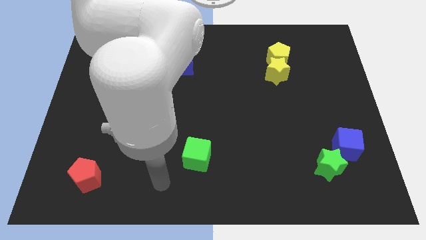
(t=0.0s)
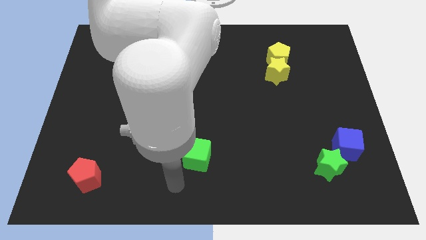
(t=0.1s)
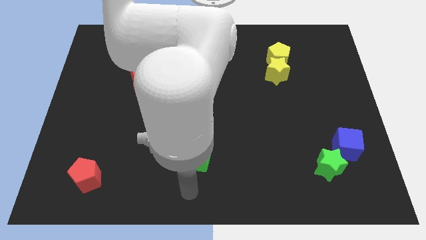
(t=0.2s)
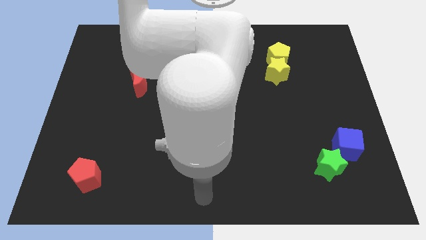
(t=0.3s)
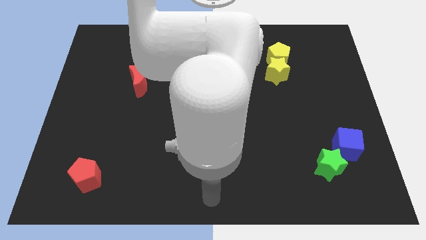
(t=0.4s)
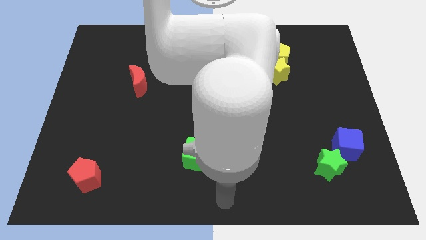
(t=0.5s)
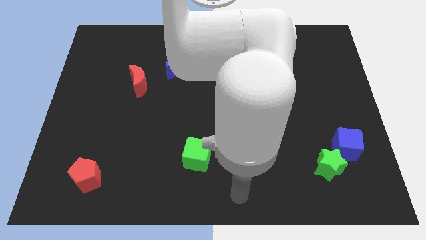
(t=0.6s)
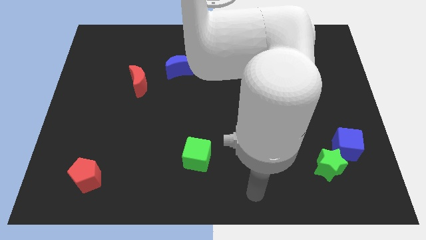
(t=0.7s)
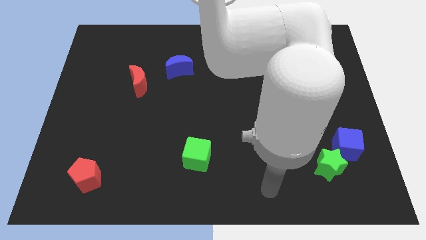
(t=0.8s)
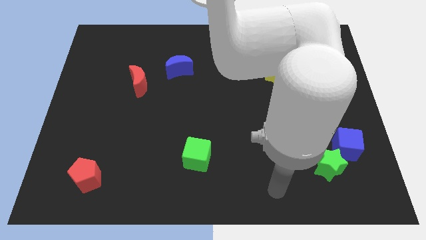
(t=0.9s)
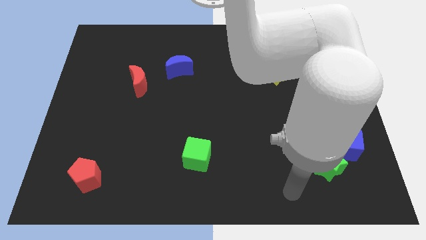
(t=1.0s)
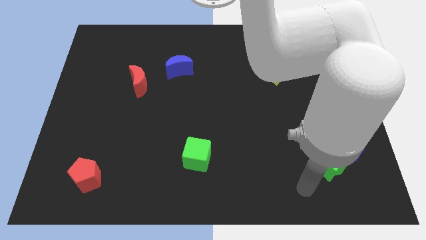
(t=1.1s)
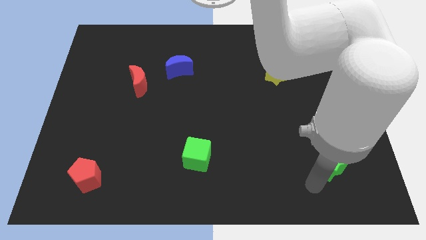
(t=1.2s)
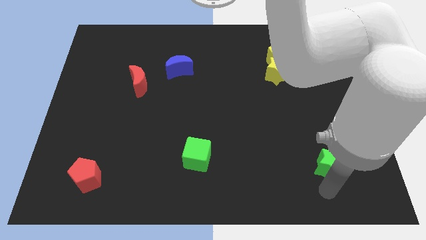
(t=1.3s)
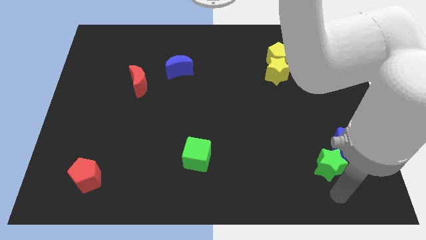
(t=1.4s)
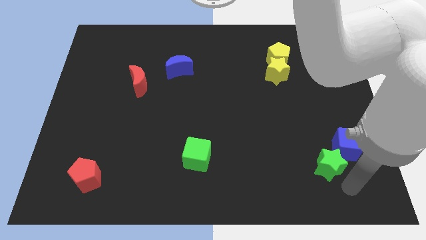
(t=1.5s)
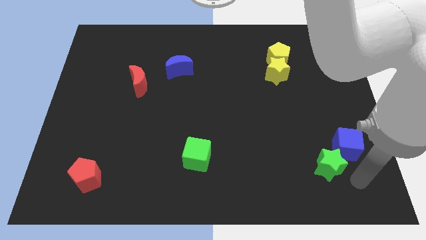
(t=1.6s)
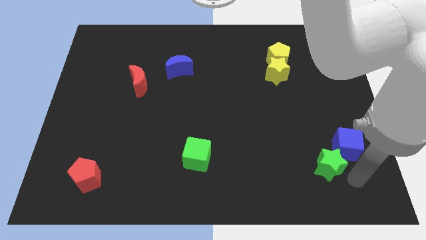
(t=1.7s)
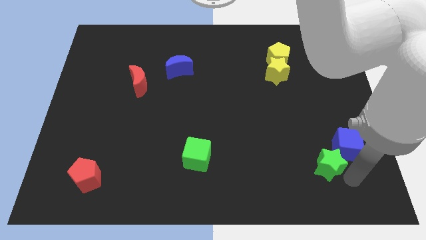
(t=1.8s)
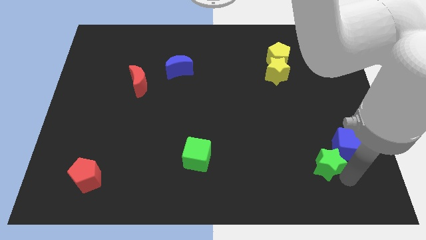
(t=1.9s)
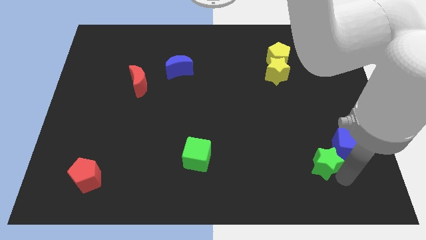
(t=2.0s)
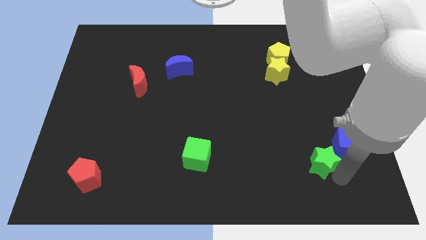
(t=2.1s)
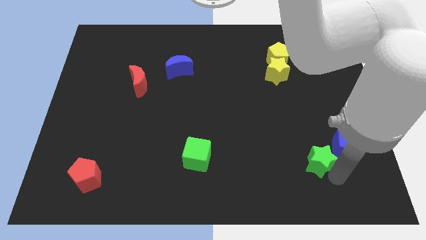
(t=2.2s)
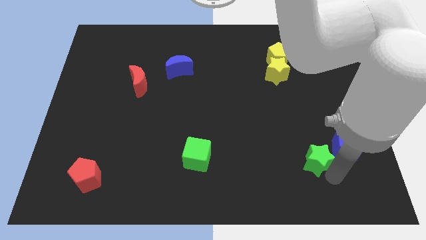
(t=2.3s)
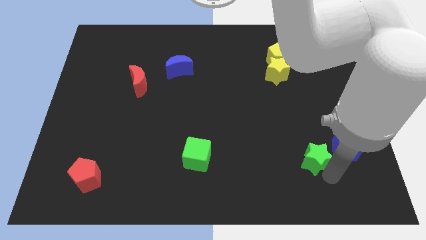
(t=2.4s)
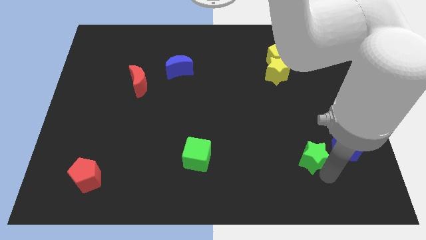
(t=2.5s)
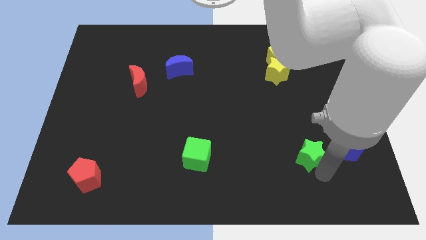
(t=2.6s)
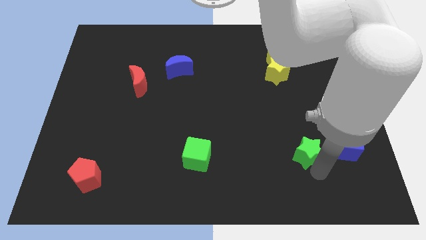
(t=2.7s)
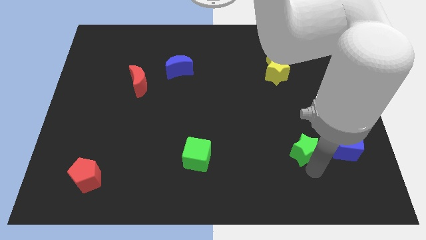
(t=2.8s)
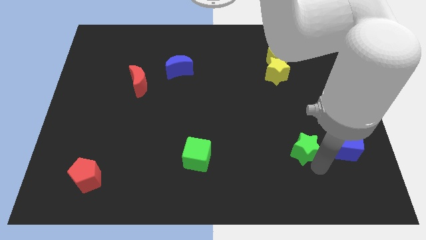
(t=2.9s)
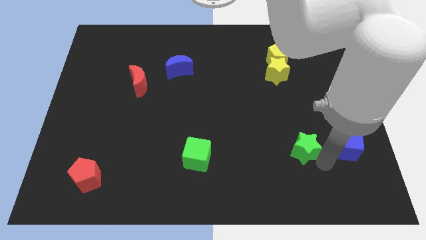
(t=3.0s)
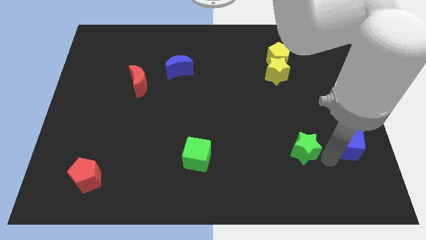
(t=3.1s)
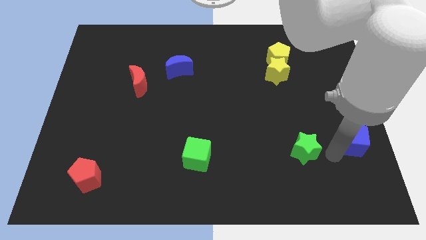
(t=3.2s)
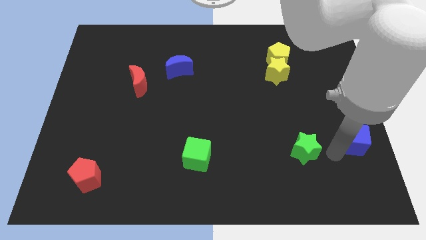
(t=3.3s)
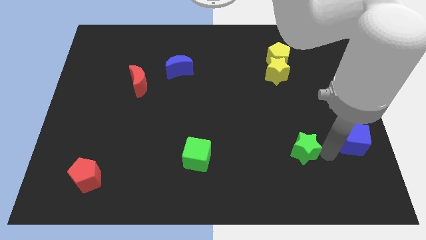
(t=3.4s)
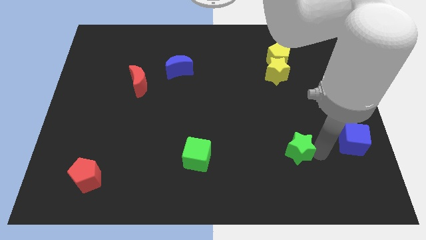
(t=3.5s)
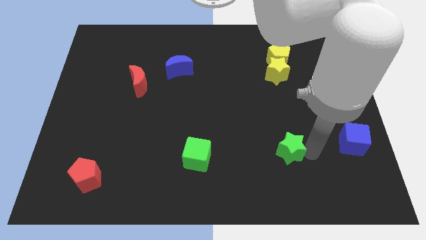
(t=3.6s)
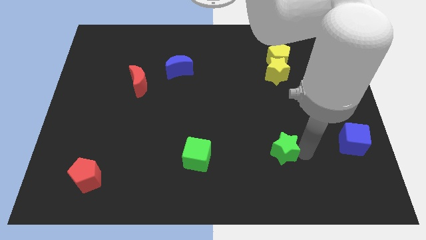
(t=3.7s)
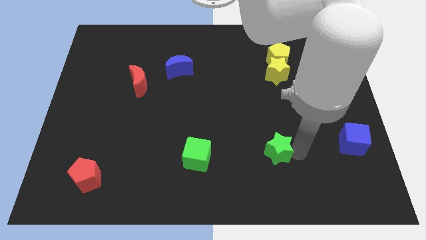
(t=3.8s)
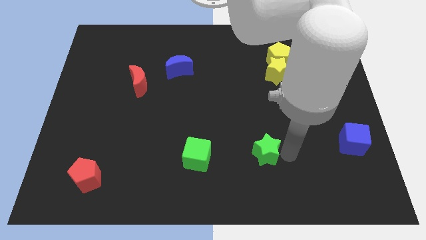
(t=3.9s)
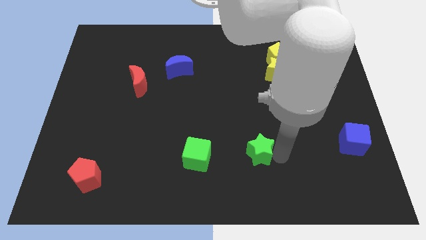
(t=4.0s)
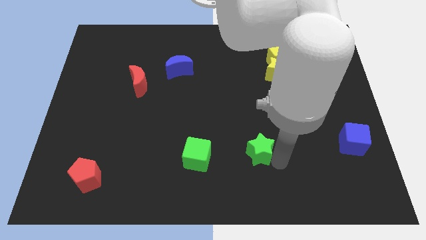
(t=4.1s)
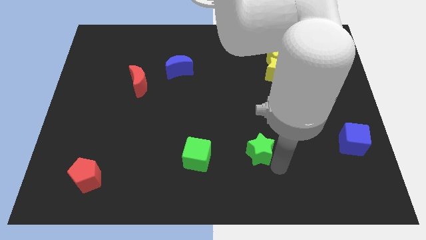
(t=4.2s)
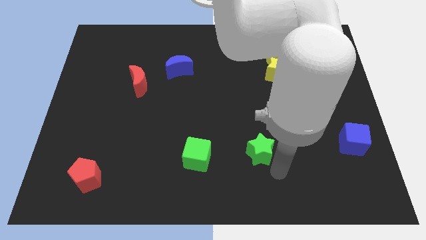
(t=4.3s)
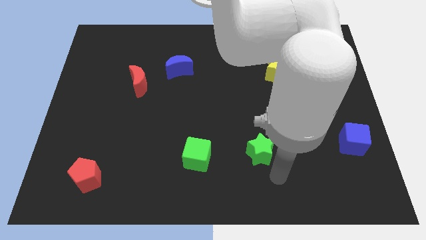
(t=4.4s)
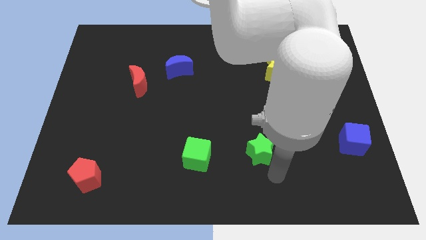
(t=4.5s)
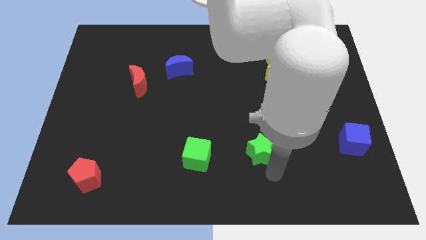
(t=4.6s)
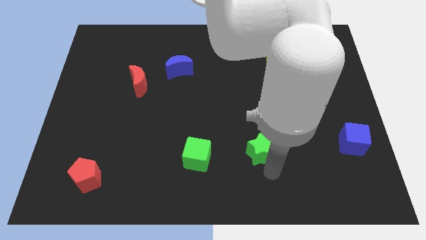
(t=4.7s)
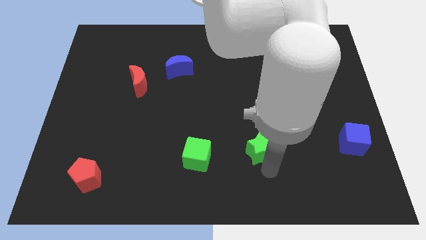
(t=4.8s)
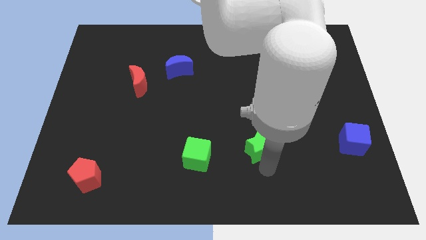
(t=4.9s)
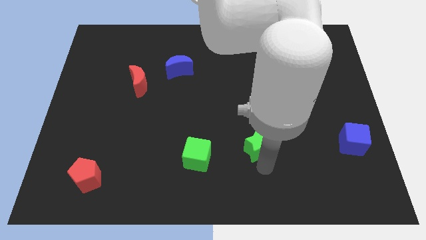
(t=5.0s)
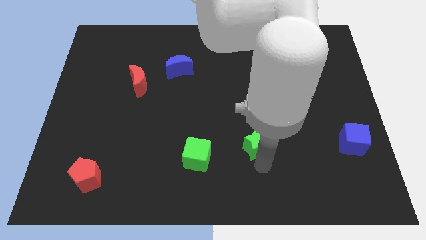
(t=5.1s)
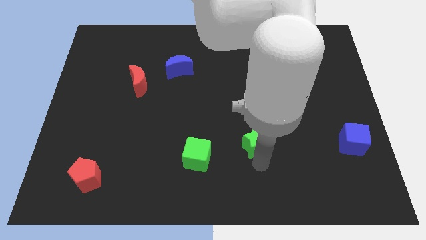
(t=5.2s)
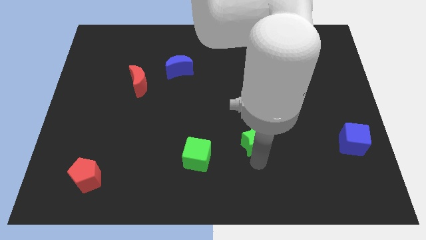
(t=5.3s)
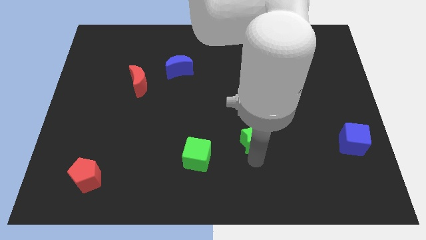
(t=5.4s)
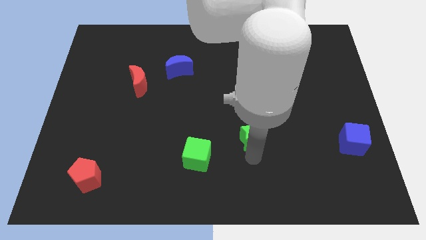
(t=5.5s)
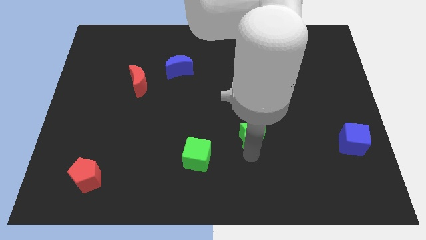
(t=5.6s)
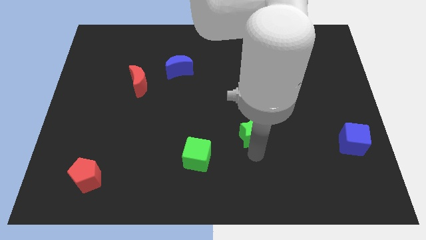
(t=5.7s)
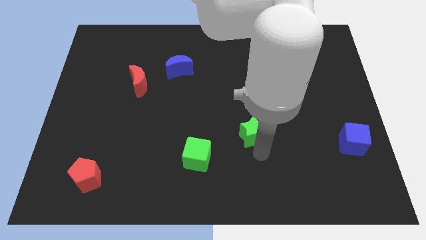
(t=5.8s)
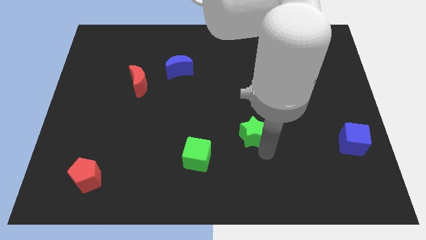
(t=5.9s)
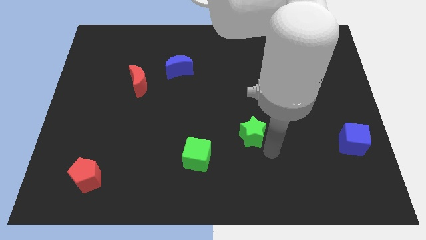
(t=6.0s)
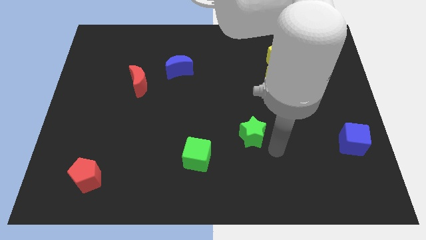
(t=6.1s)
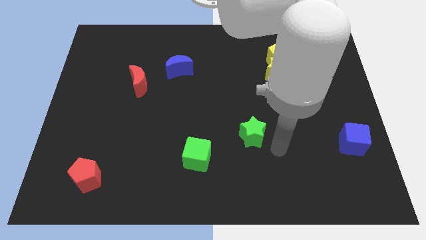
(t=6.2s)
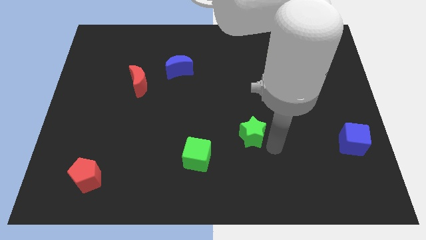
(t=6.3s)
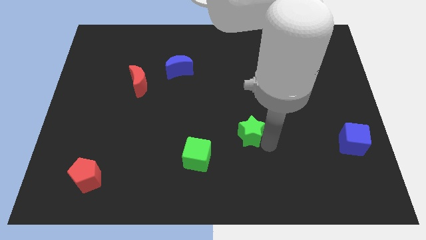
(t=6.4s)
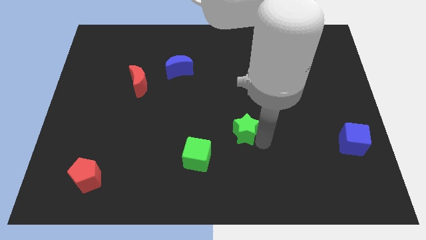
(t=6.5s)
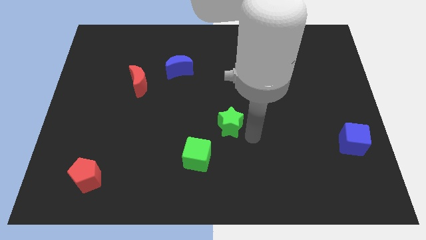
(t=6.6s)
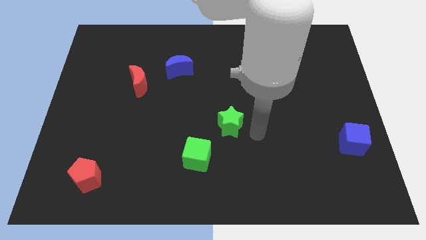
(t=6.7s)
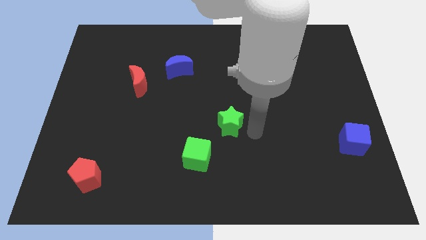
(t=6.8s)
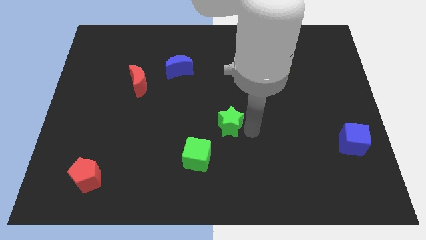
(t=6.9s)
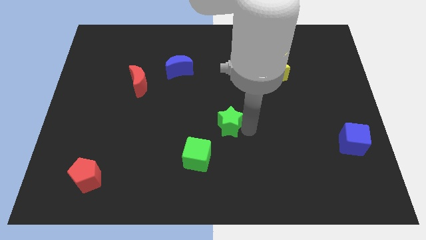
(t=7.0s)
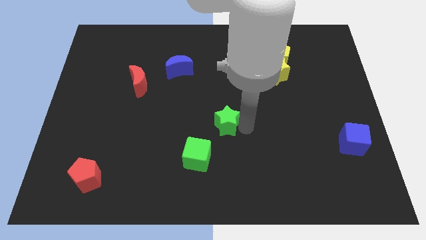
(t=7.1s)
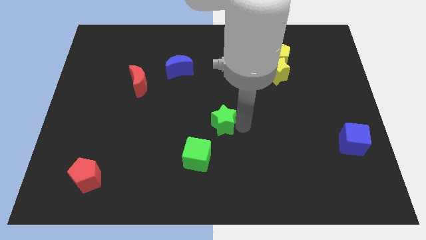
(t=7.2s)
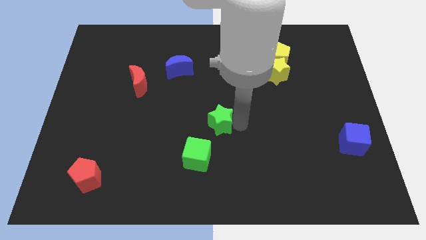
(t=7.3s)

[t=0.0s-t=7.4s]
push the green star to the top of the green cube

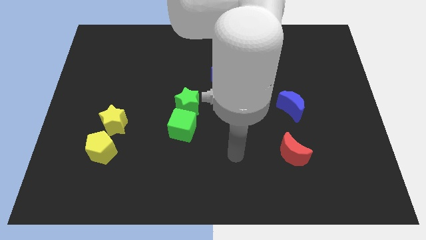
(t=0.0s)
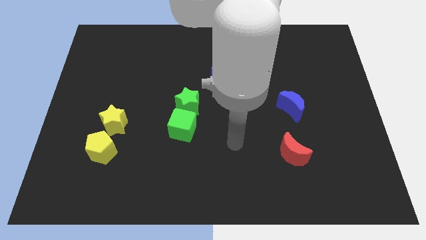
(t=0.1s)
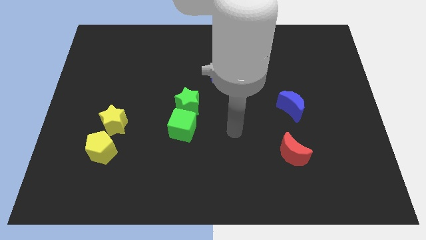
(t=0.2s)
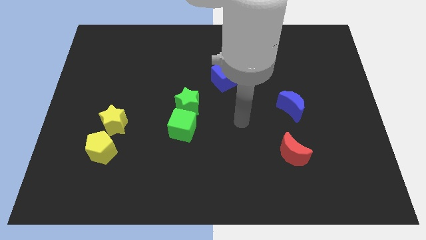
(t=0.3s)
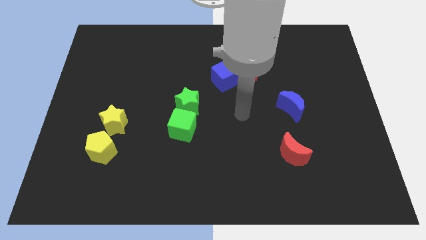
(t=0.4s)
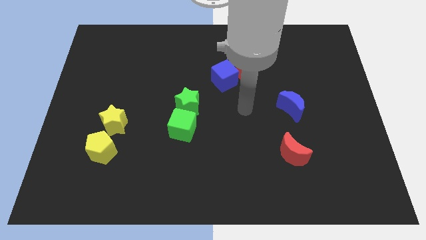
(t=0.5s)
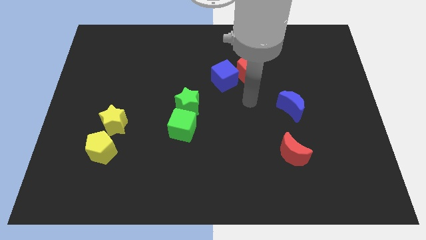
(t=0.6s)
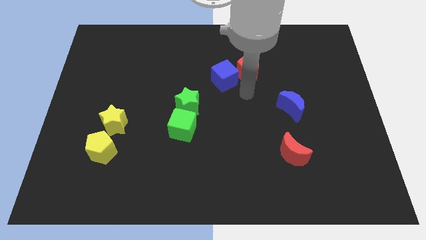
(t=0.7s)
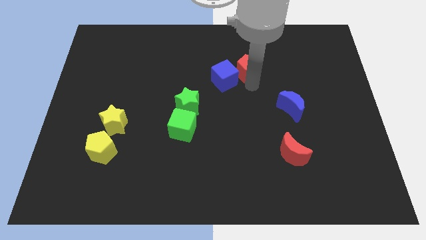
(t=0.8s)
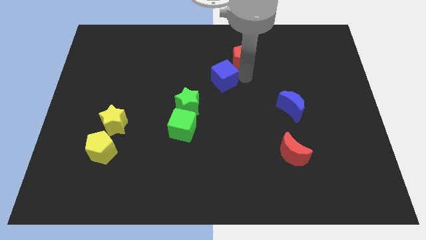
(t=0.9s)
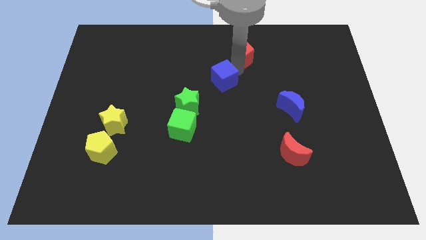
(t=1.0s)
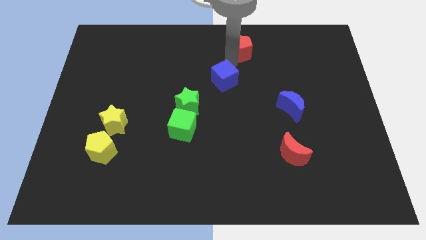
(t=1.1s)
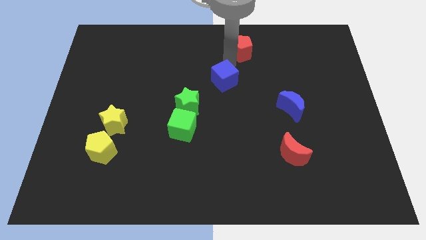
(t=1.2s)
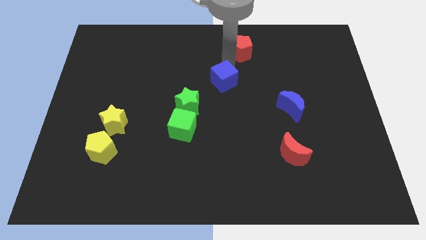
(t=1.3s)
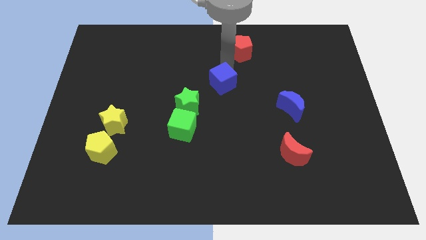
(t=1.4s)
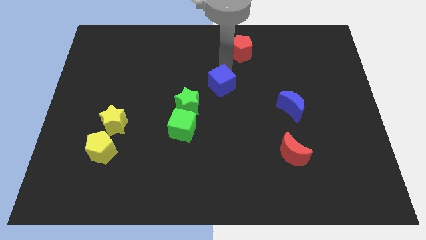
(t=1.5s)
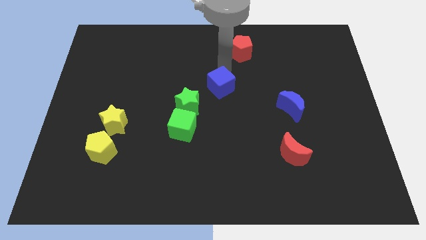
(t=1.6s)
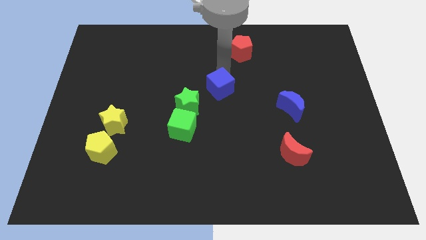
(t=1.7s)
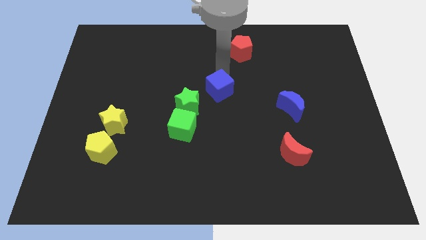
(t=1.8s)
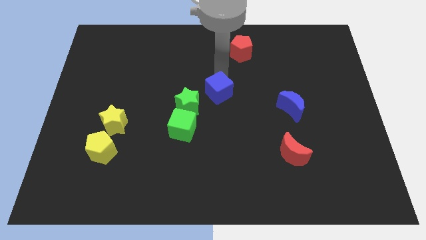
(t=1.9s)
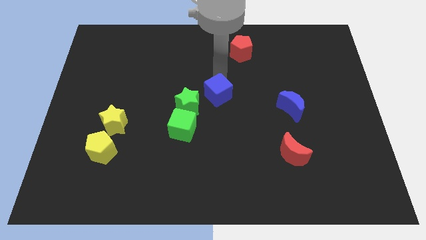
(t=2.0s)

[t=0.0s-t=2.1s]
slide the blue cube to the top right of the green cube
